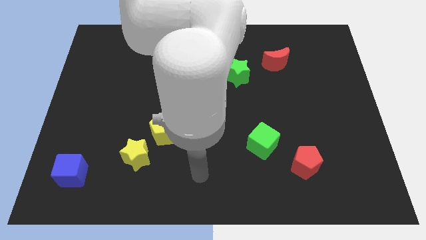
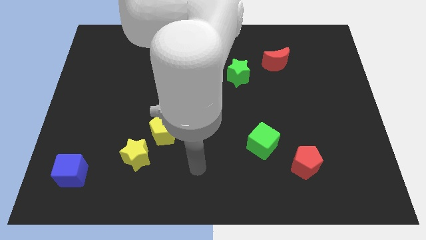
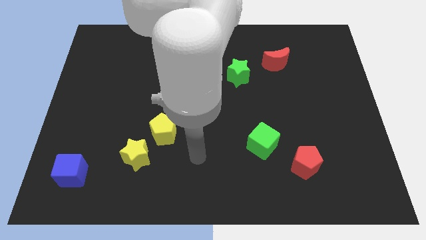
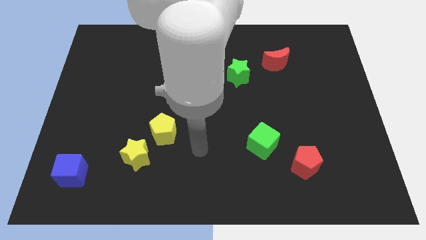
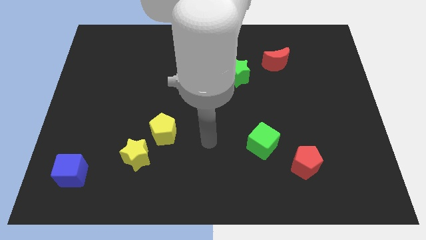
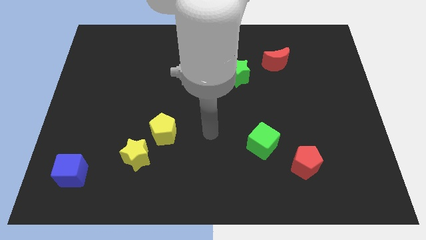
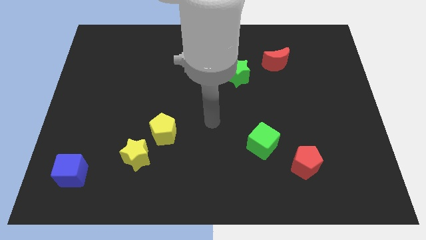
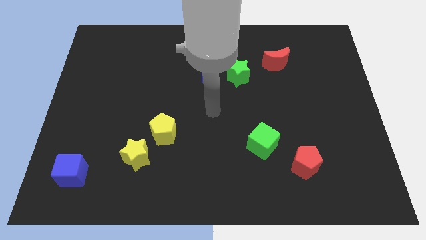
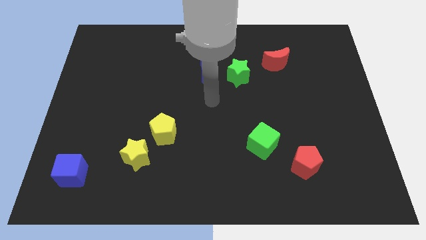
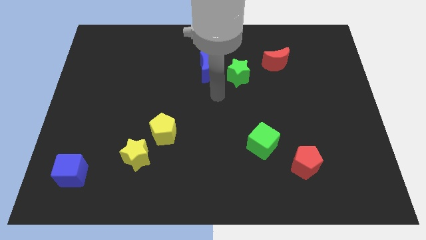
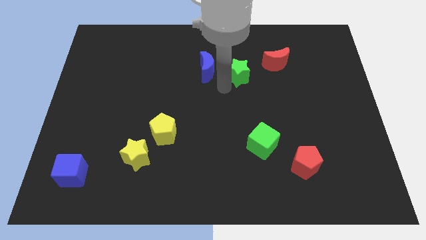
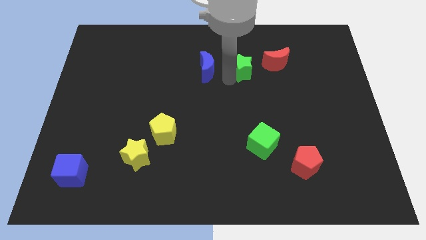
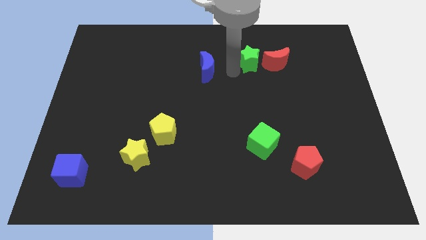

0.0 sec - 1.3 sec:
separate the blue moon from the green star

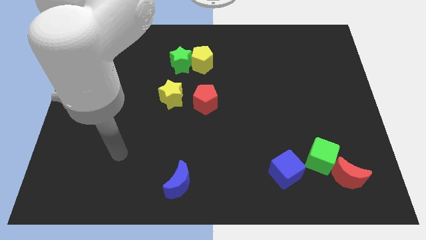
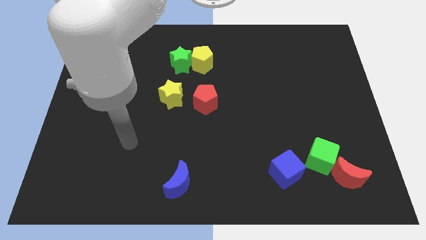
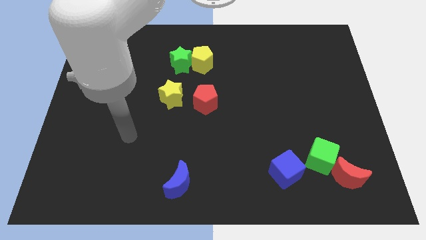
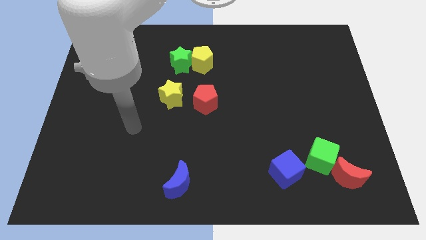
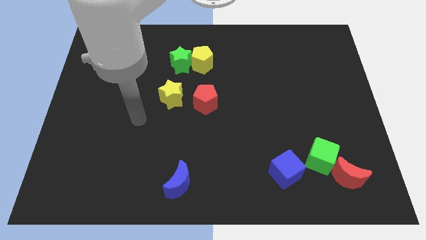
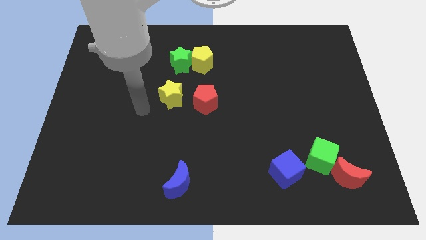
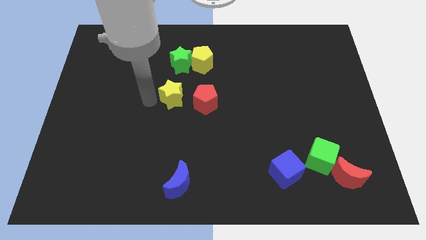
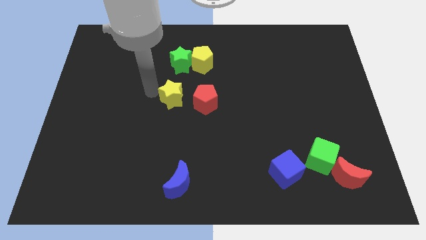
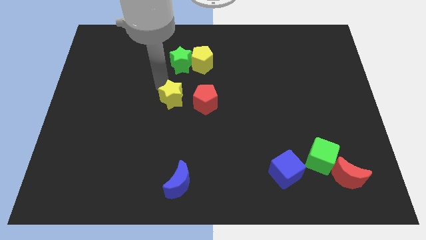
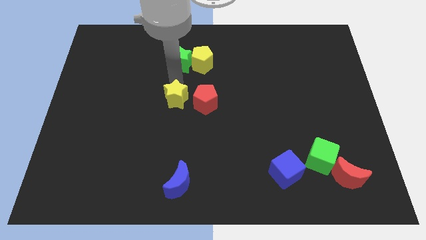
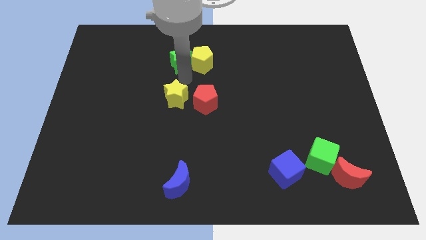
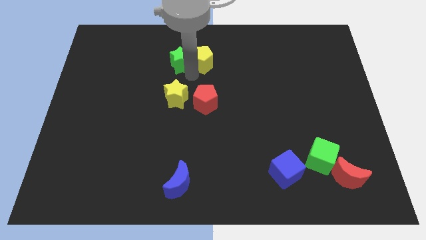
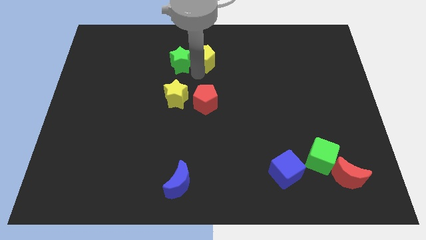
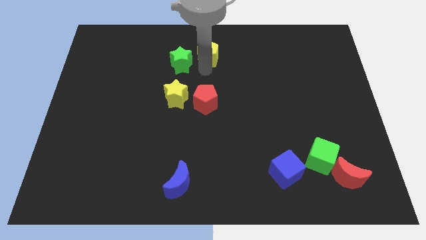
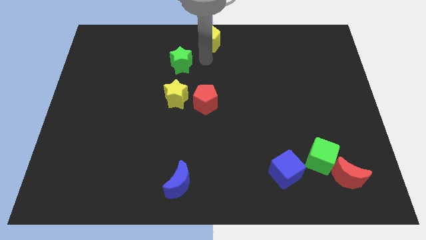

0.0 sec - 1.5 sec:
pull the green star apart from the yellow pentagon

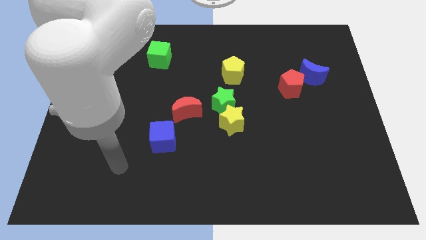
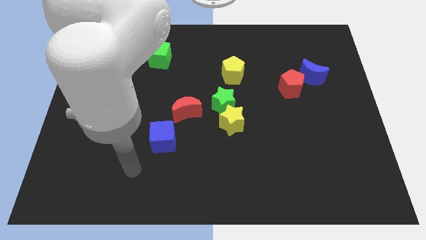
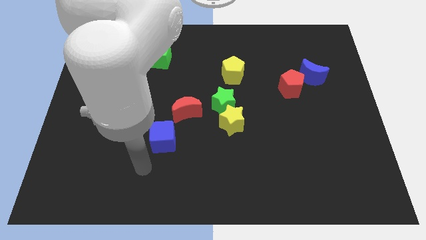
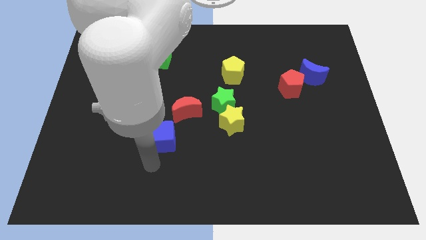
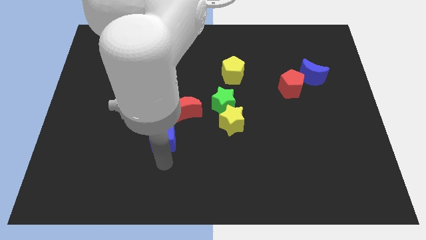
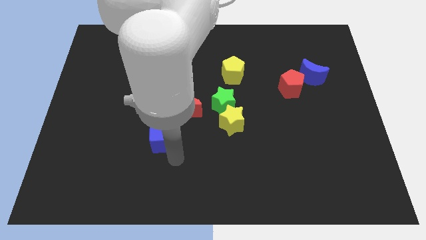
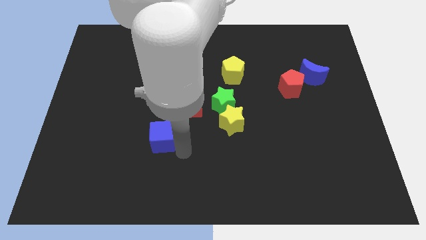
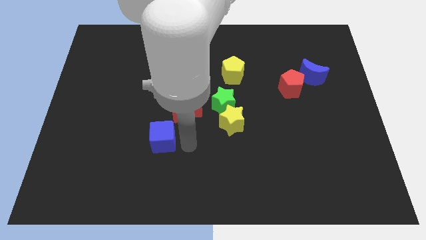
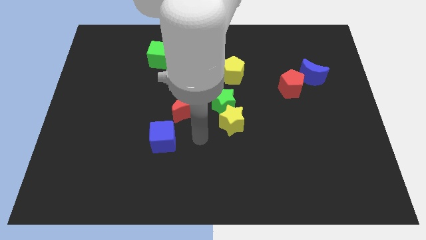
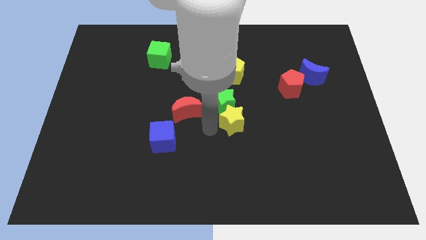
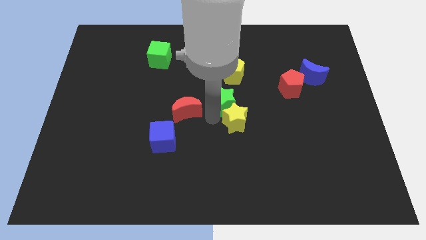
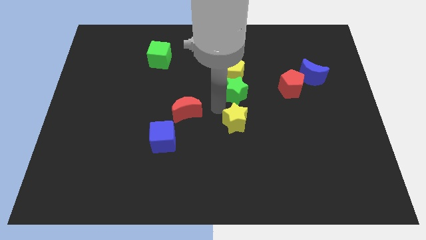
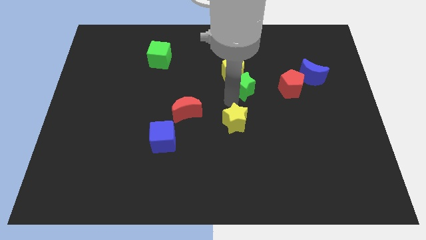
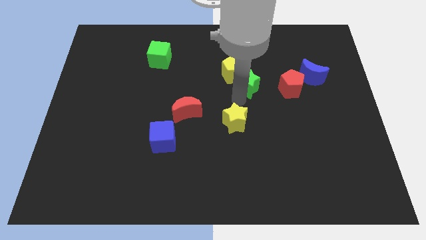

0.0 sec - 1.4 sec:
pull the yellow star apart from the green star

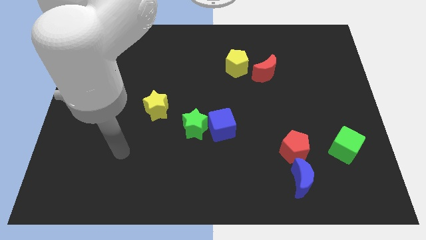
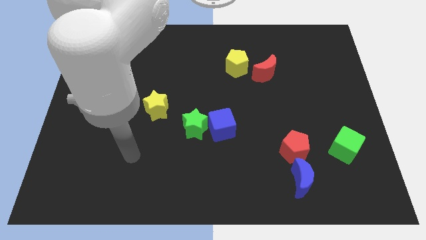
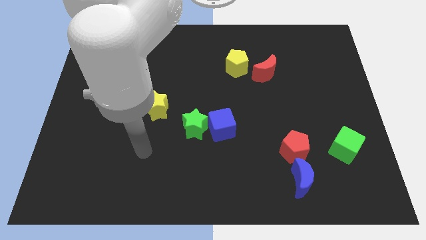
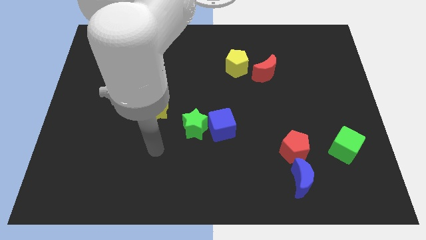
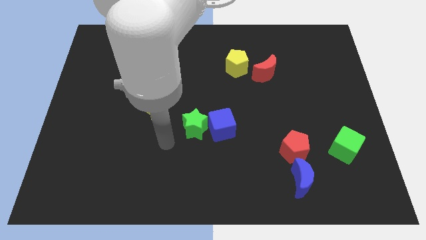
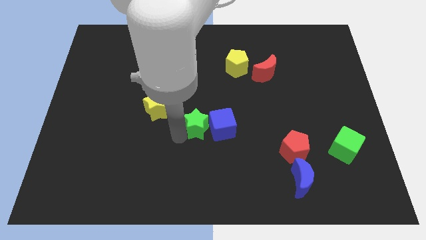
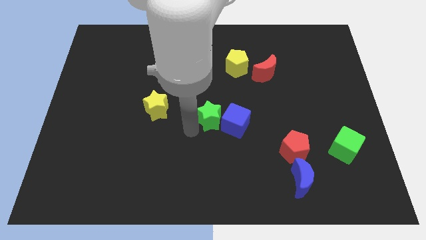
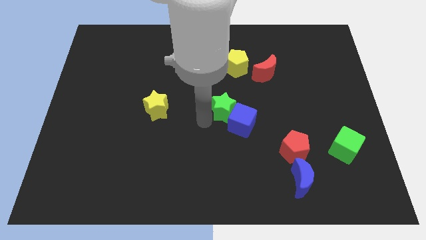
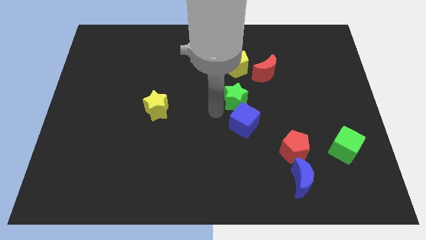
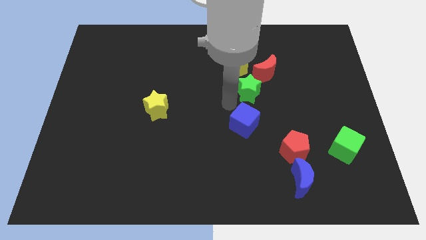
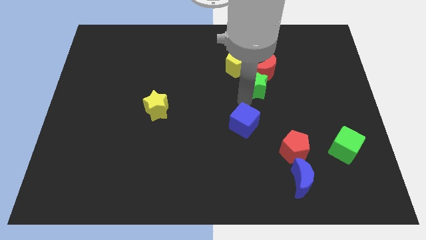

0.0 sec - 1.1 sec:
separate the blue cube from the green star

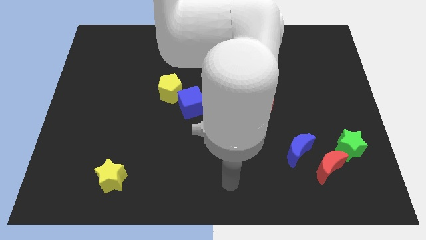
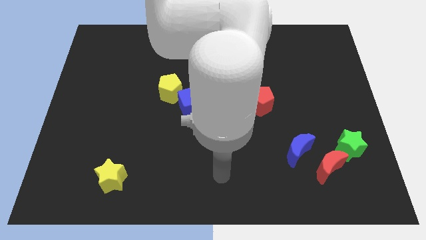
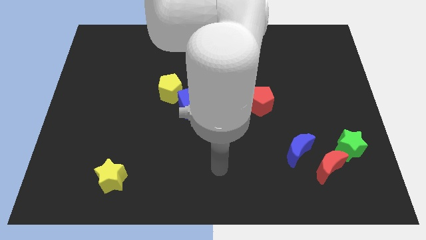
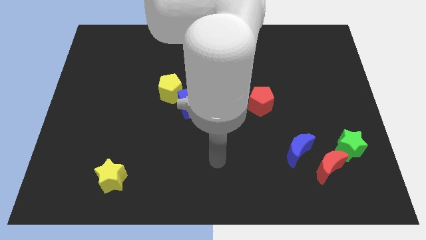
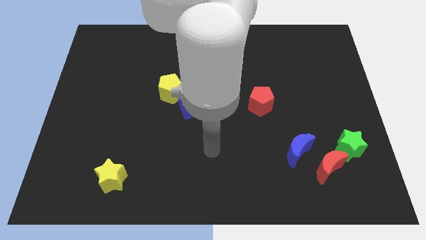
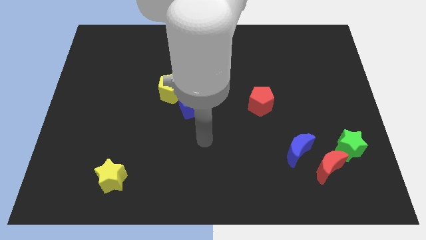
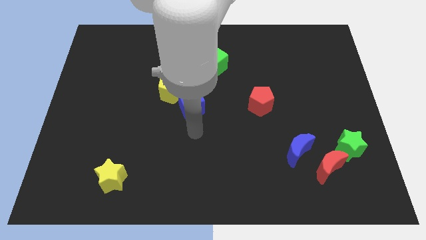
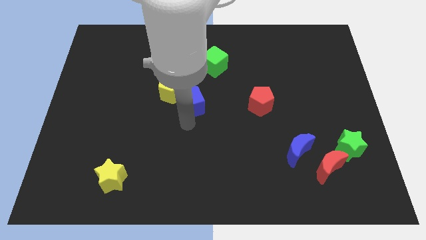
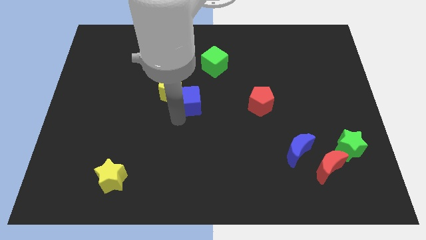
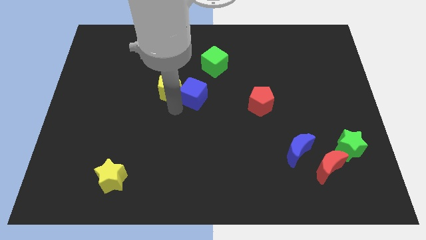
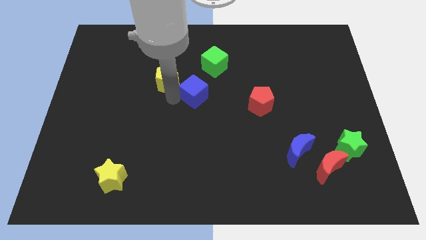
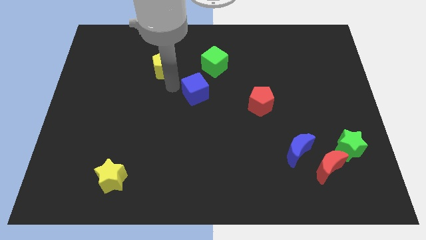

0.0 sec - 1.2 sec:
separate the blue cube from the yellow pentagon

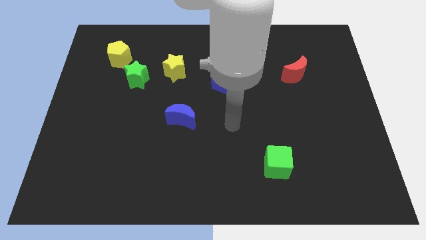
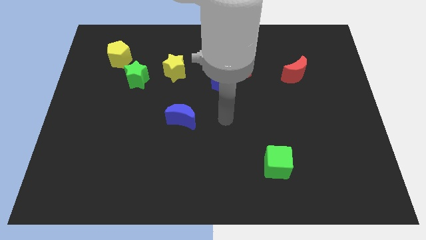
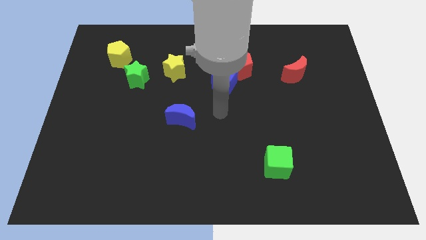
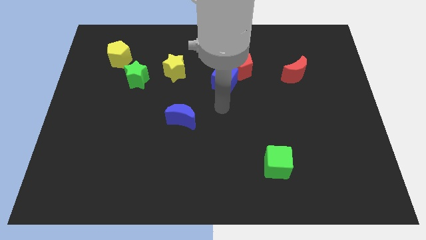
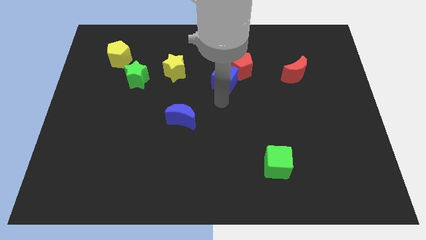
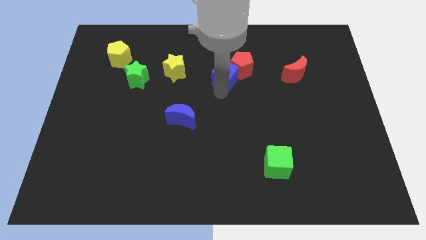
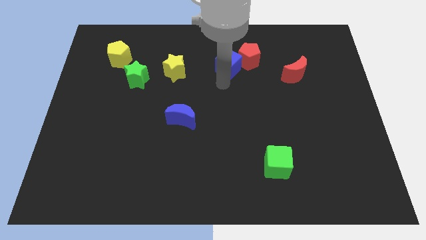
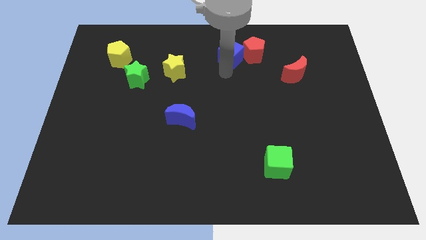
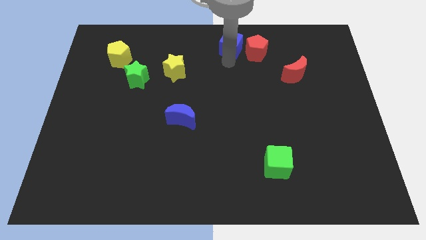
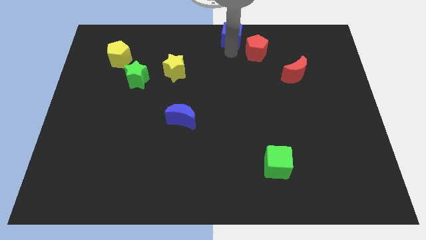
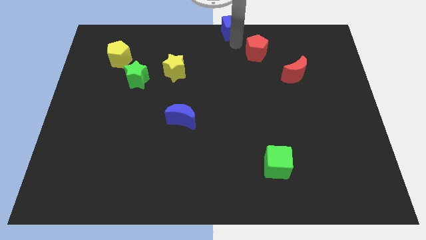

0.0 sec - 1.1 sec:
separate the red pentagon from the blue cube

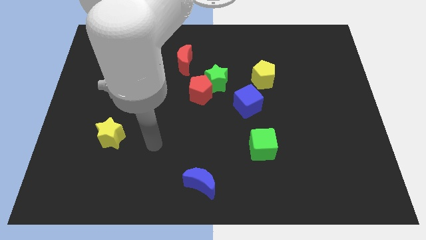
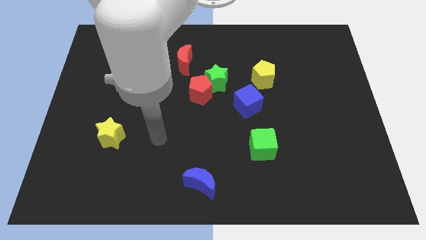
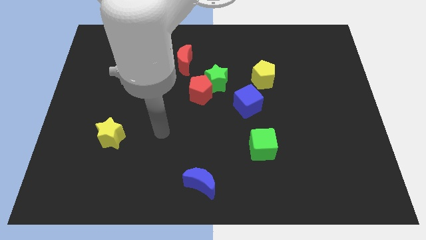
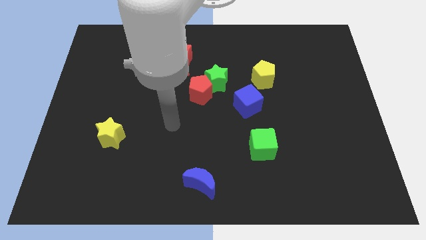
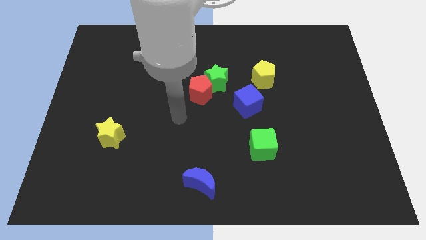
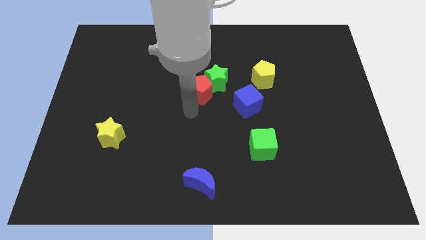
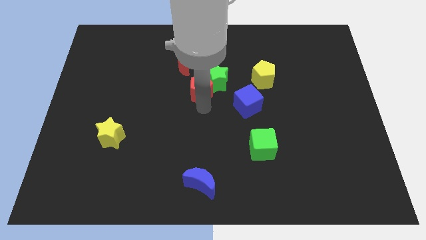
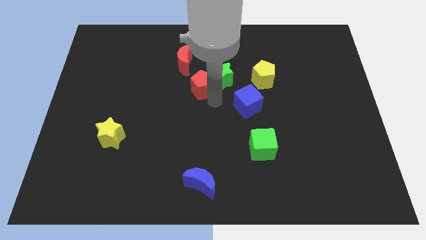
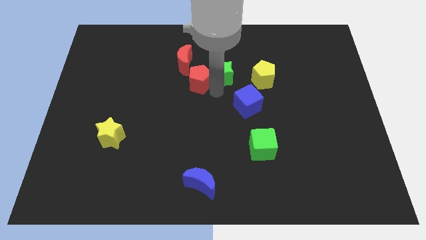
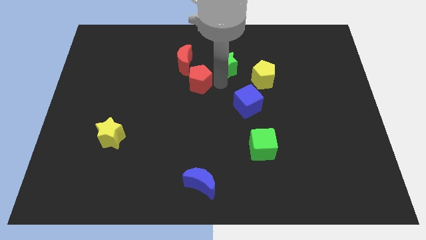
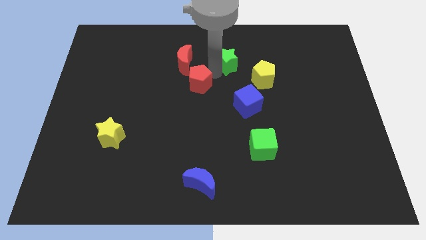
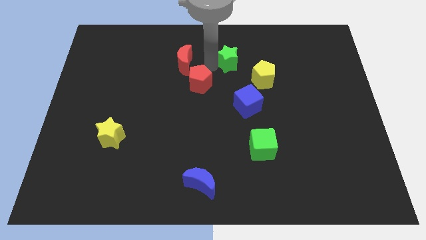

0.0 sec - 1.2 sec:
move the red pentagon away from the green star

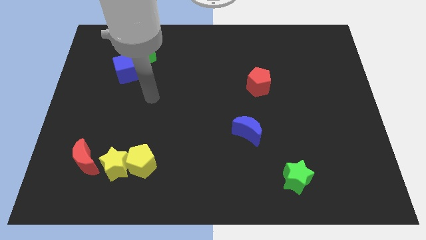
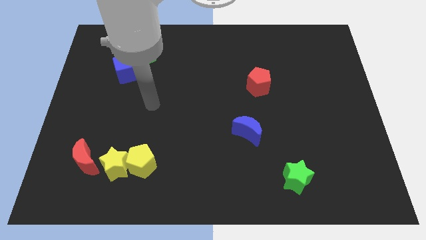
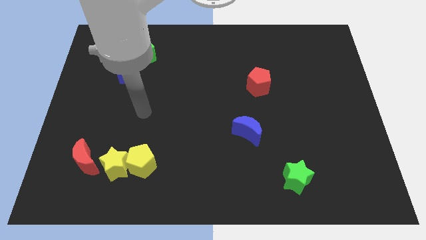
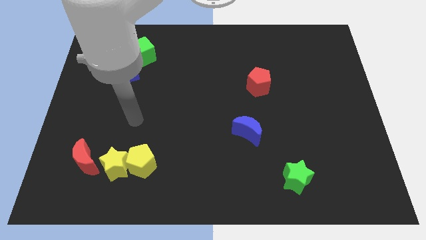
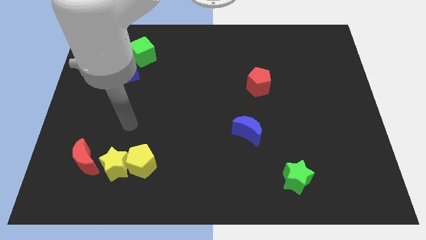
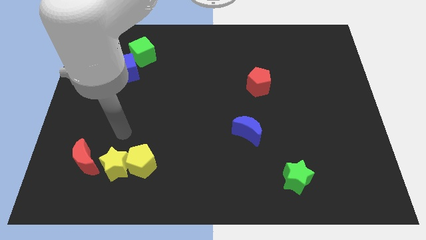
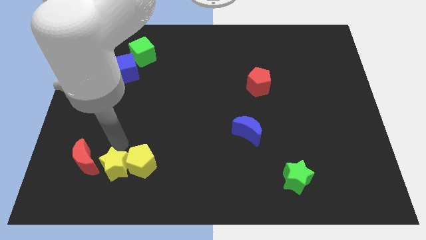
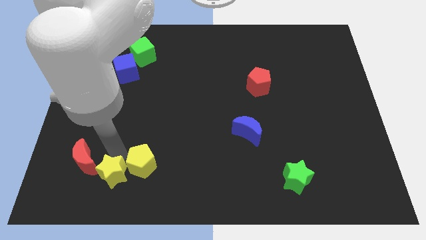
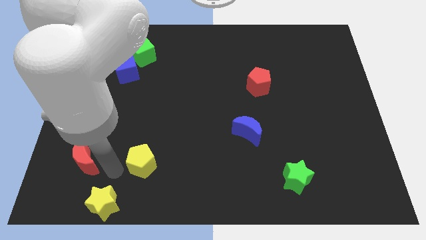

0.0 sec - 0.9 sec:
move the yellow pentagon away from the yellow star
